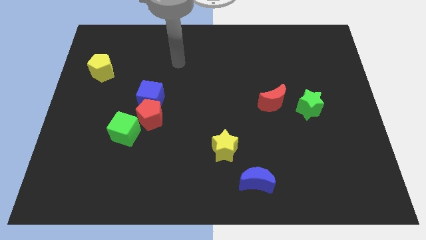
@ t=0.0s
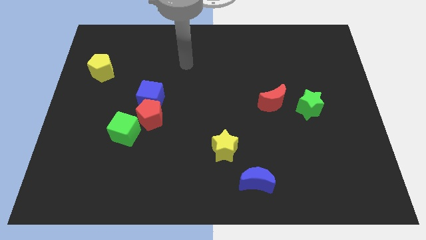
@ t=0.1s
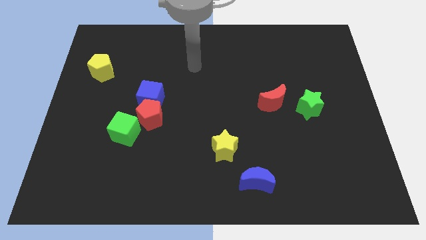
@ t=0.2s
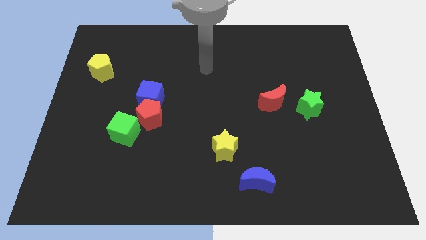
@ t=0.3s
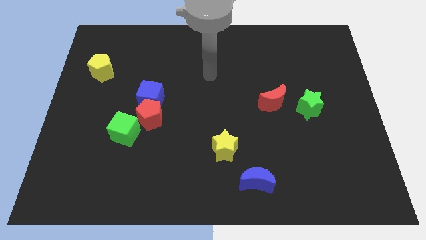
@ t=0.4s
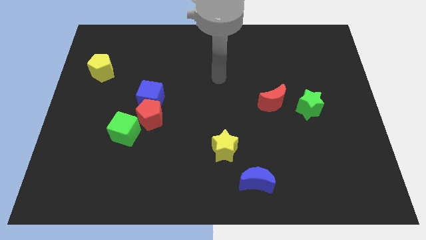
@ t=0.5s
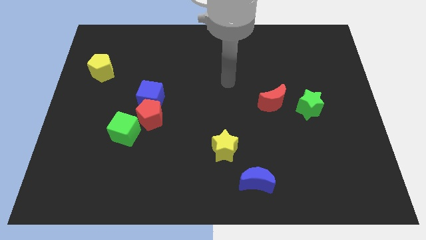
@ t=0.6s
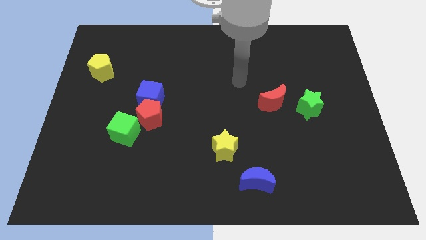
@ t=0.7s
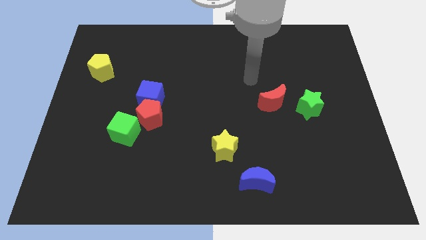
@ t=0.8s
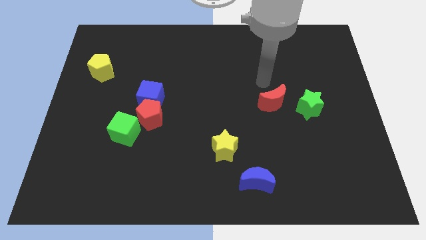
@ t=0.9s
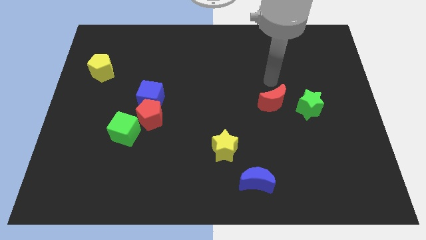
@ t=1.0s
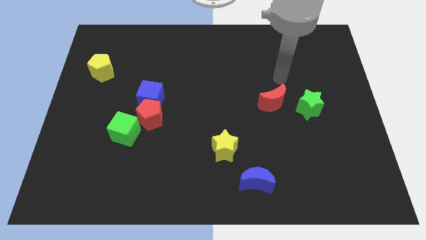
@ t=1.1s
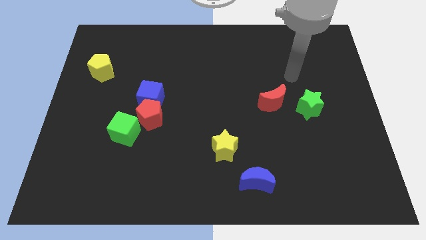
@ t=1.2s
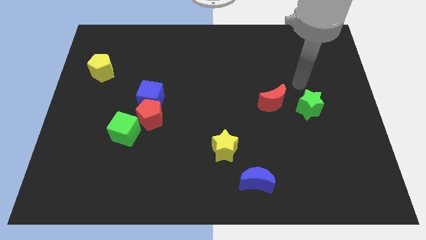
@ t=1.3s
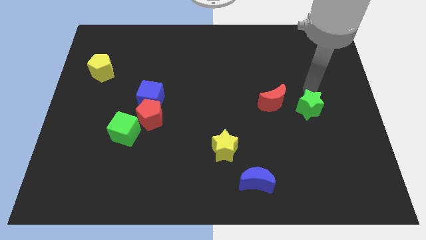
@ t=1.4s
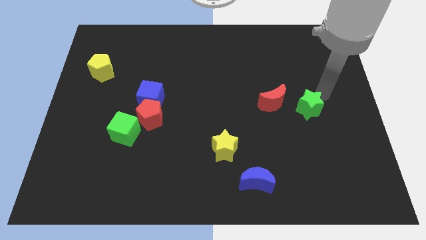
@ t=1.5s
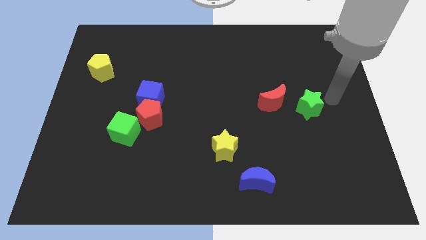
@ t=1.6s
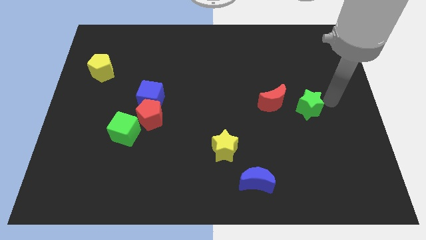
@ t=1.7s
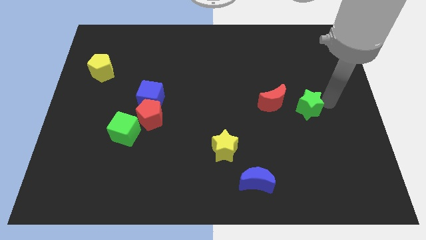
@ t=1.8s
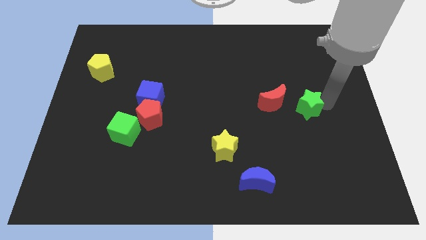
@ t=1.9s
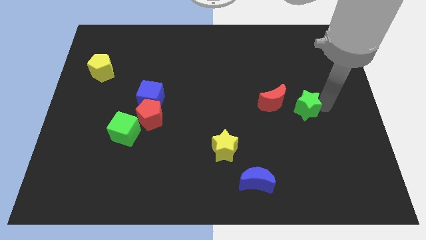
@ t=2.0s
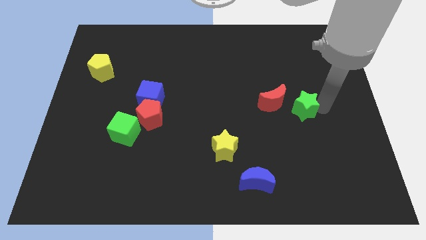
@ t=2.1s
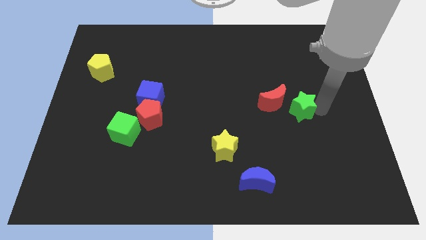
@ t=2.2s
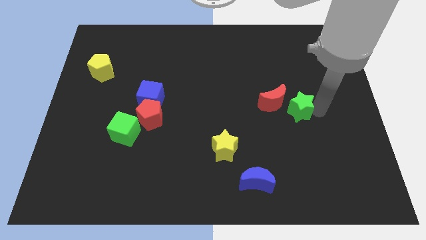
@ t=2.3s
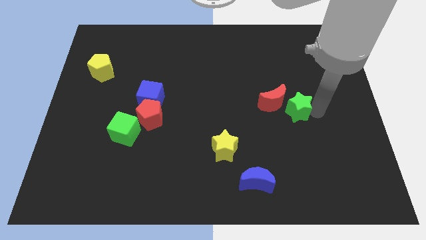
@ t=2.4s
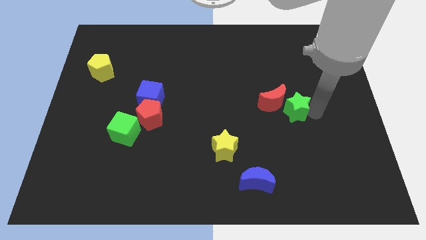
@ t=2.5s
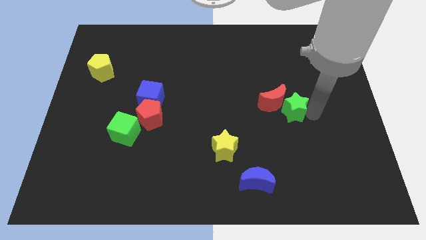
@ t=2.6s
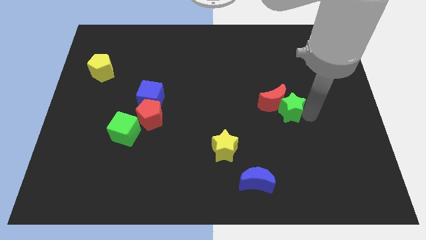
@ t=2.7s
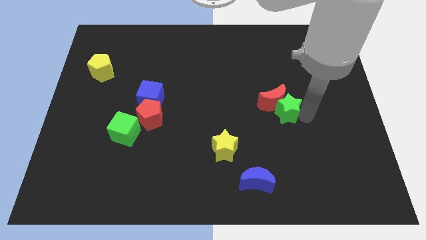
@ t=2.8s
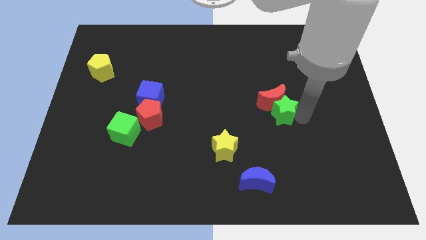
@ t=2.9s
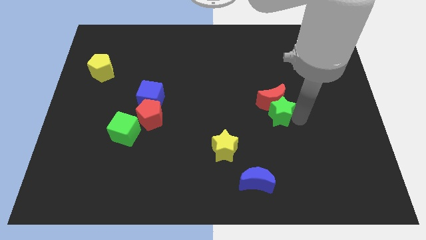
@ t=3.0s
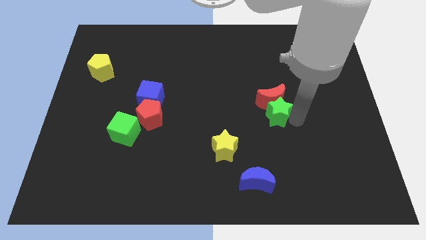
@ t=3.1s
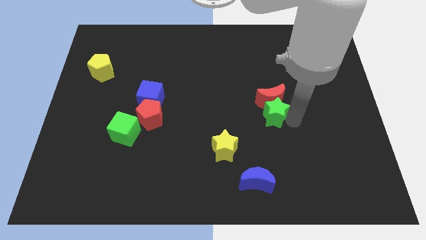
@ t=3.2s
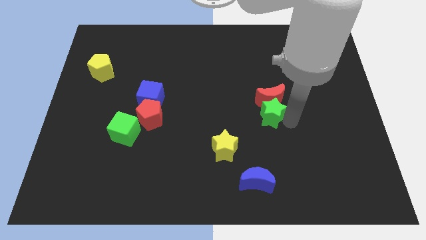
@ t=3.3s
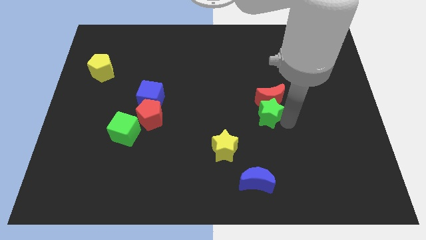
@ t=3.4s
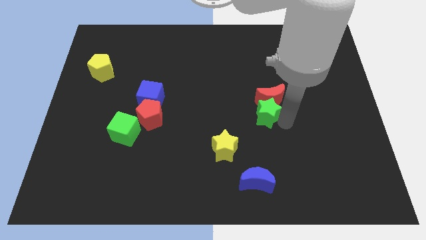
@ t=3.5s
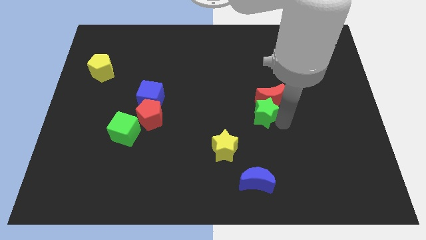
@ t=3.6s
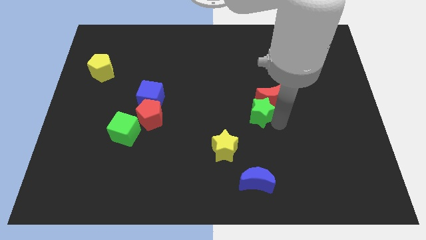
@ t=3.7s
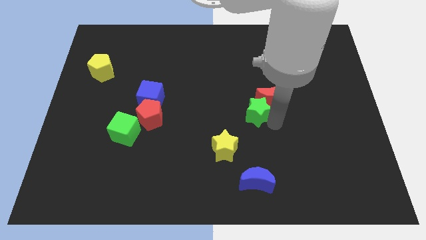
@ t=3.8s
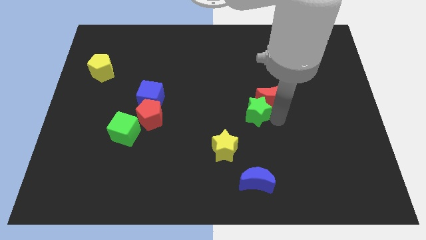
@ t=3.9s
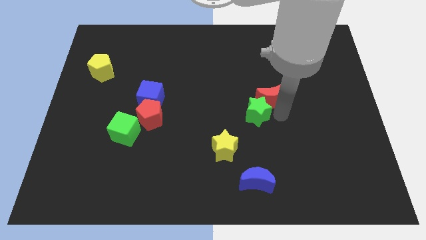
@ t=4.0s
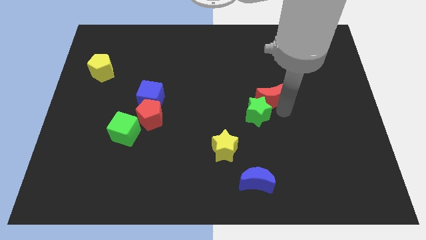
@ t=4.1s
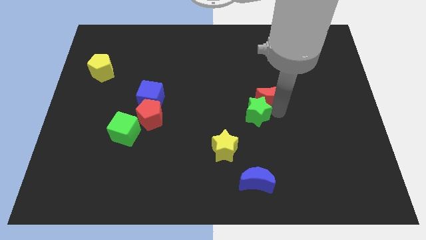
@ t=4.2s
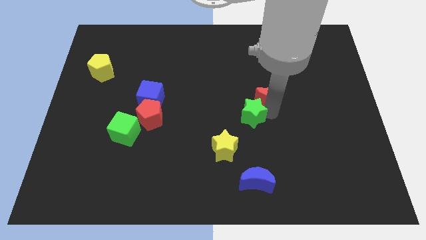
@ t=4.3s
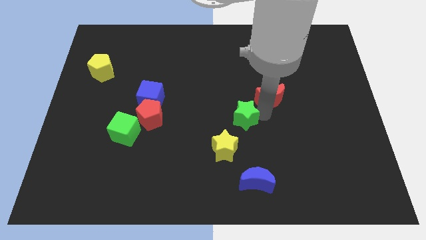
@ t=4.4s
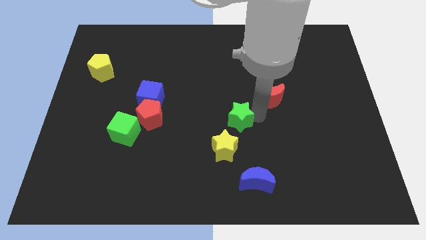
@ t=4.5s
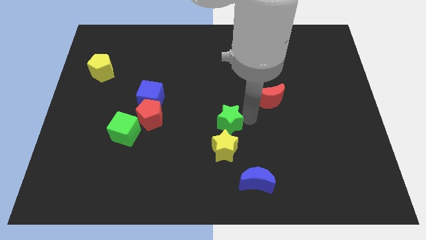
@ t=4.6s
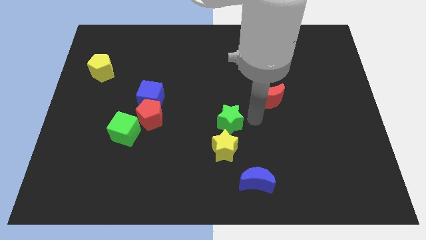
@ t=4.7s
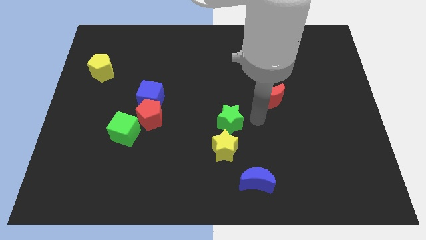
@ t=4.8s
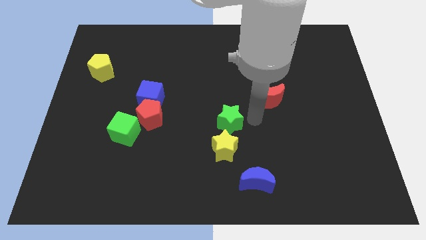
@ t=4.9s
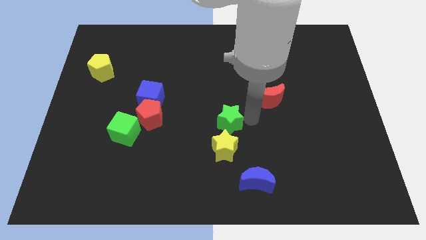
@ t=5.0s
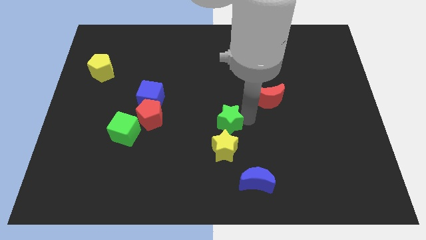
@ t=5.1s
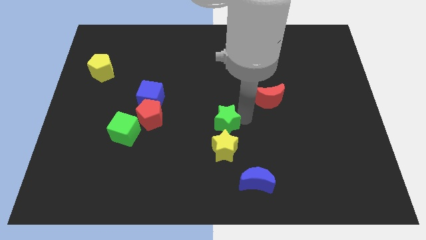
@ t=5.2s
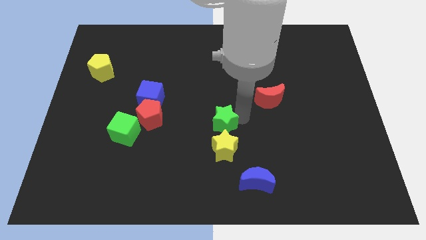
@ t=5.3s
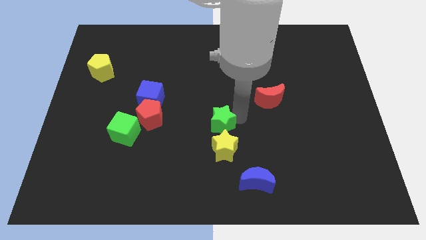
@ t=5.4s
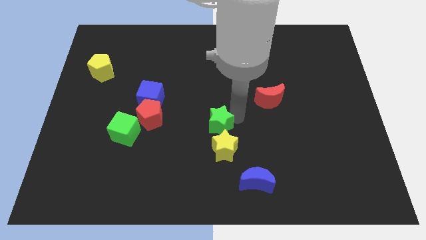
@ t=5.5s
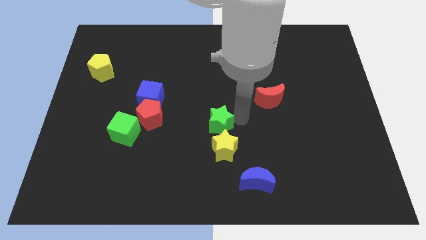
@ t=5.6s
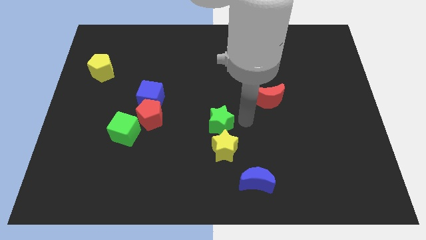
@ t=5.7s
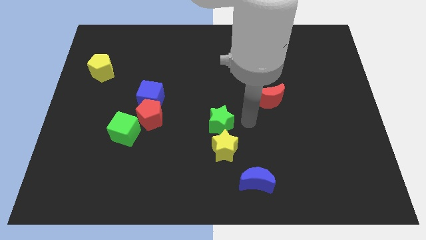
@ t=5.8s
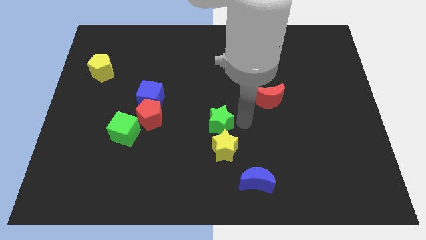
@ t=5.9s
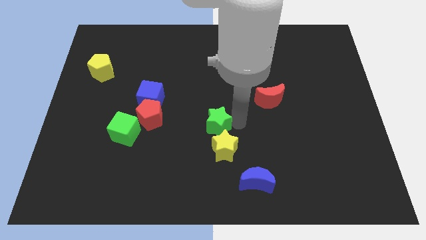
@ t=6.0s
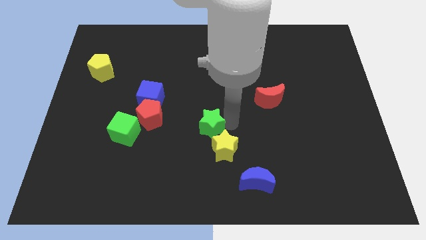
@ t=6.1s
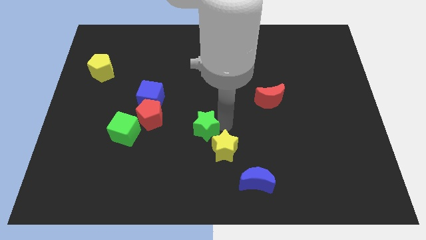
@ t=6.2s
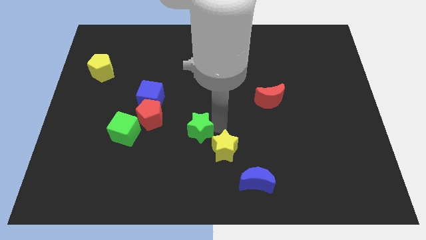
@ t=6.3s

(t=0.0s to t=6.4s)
push the green star just left of the yellow star

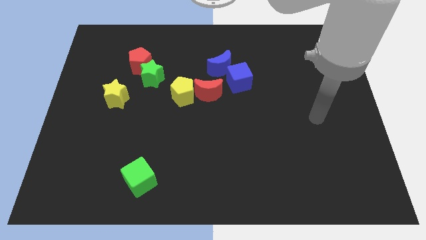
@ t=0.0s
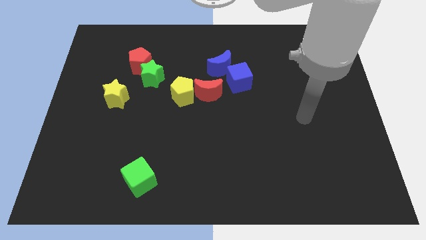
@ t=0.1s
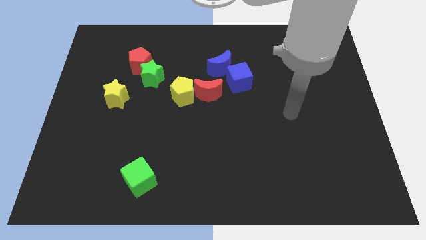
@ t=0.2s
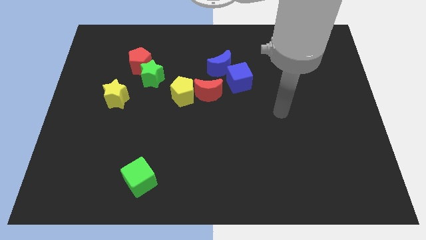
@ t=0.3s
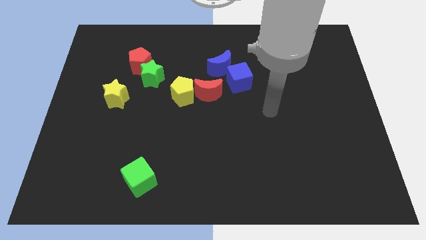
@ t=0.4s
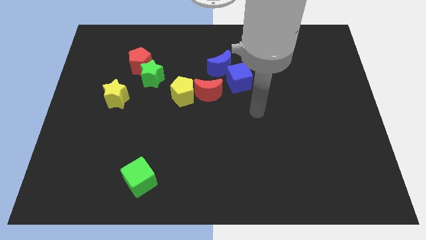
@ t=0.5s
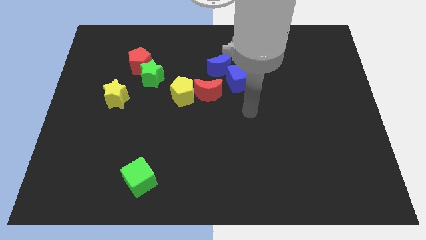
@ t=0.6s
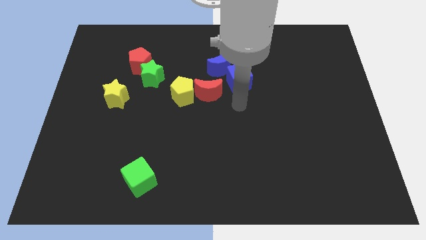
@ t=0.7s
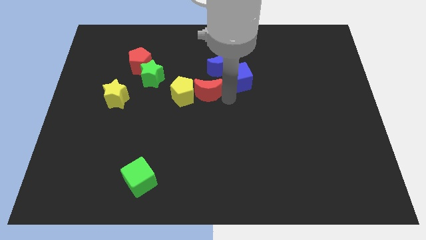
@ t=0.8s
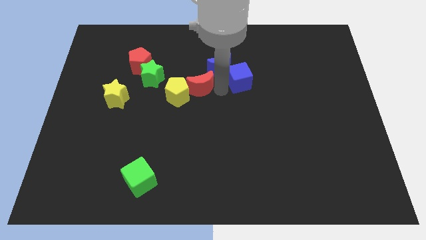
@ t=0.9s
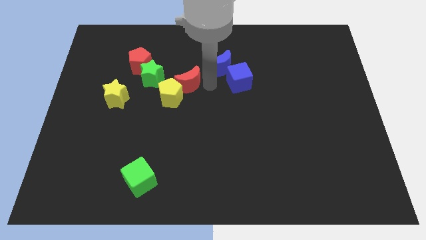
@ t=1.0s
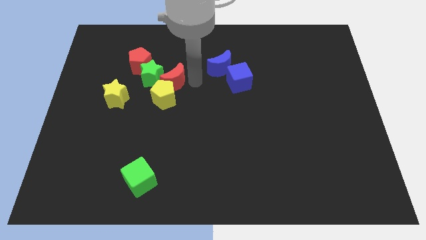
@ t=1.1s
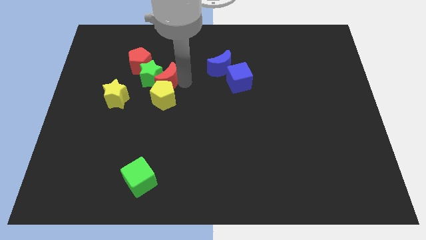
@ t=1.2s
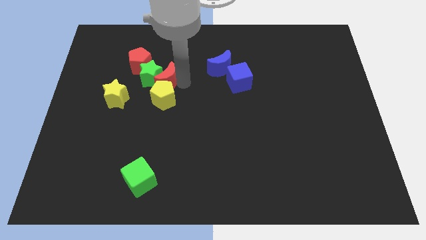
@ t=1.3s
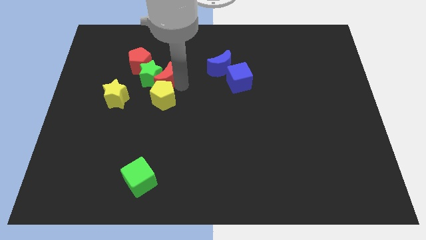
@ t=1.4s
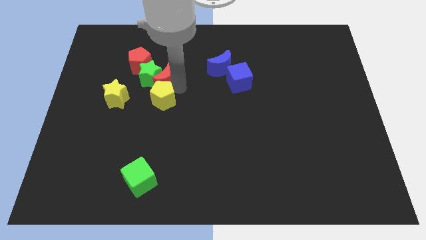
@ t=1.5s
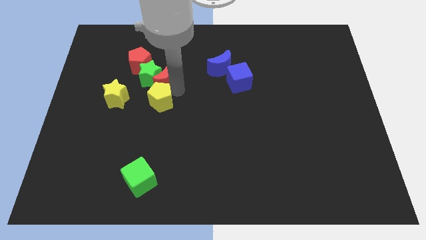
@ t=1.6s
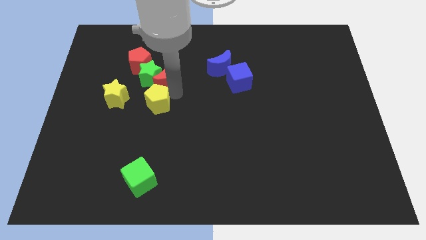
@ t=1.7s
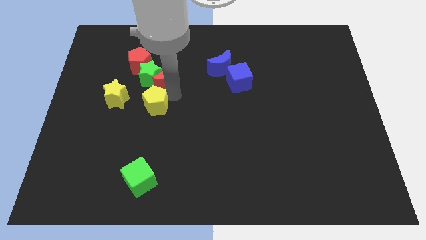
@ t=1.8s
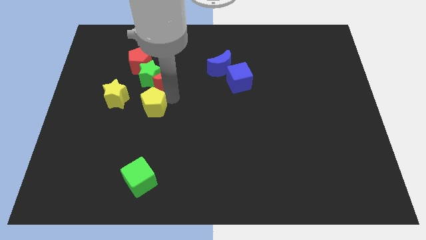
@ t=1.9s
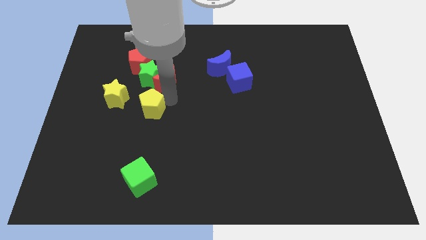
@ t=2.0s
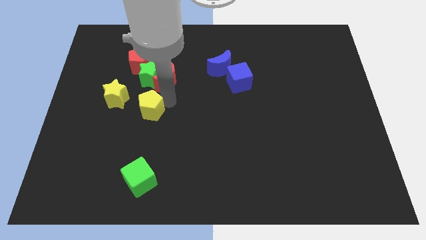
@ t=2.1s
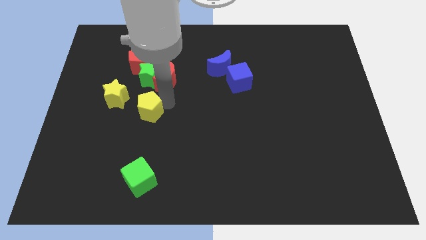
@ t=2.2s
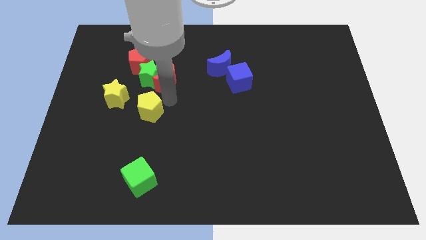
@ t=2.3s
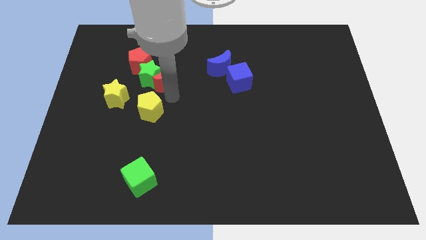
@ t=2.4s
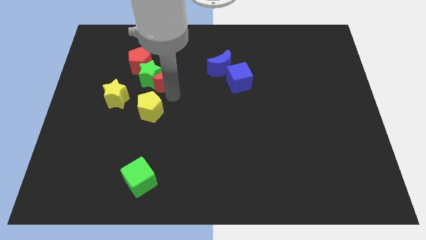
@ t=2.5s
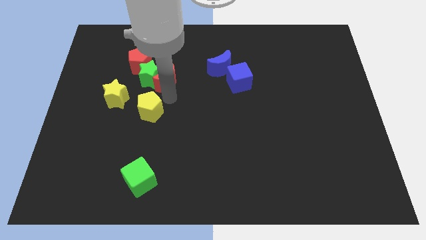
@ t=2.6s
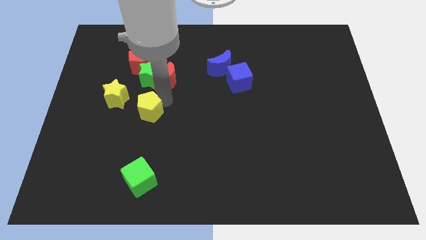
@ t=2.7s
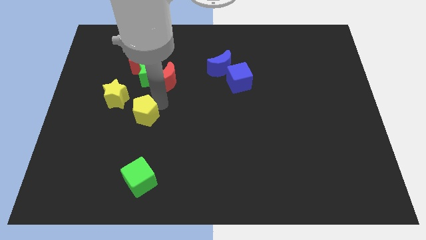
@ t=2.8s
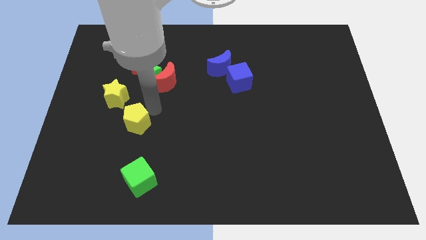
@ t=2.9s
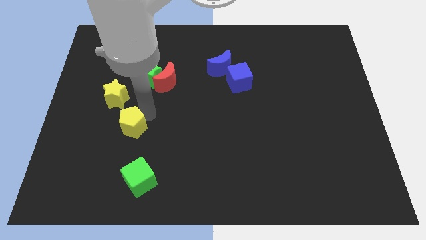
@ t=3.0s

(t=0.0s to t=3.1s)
put the yellow pentagon below the yellow star
